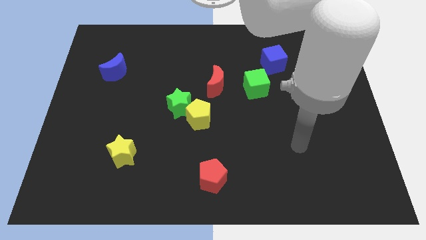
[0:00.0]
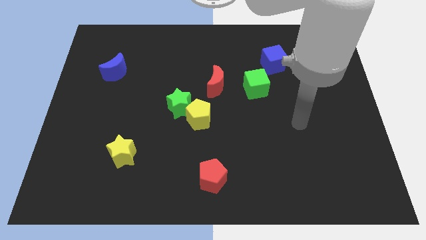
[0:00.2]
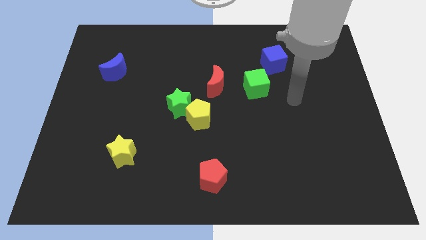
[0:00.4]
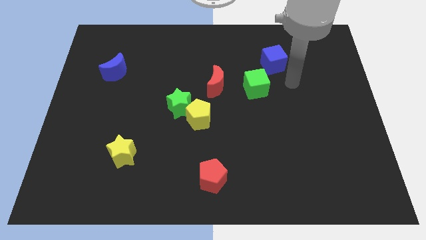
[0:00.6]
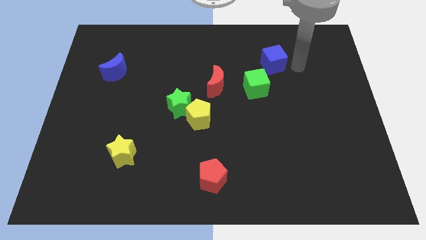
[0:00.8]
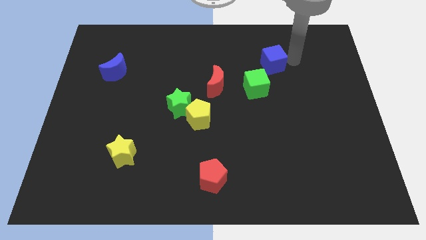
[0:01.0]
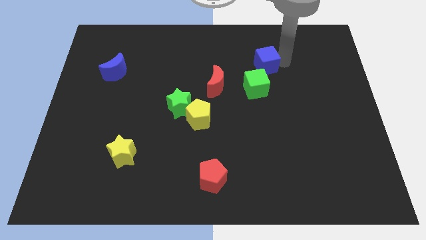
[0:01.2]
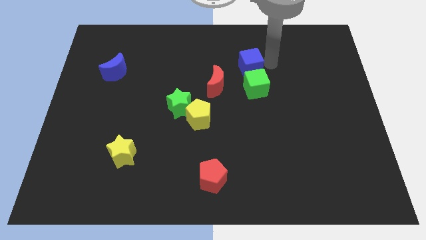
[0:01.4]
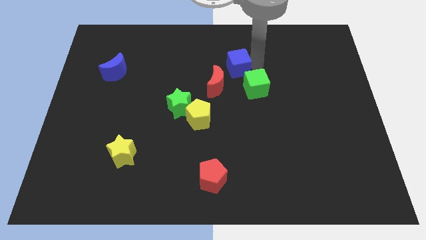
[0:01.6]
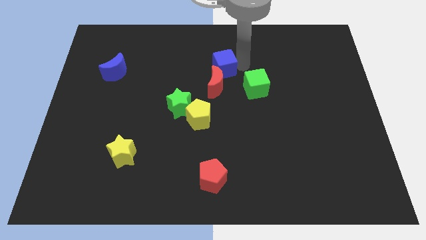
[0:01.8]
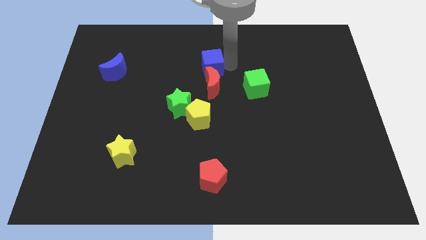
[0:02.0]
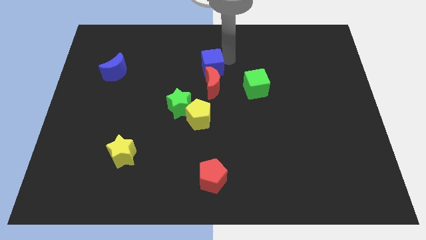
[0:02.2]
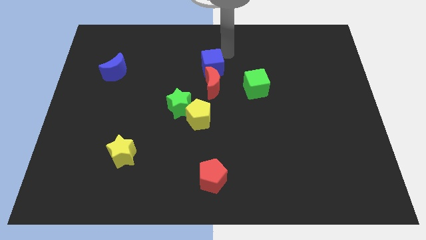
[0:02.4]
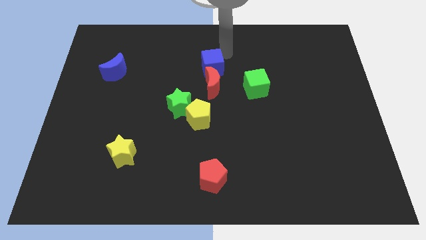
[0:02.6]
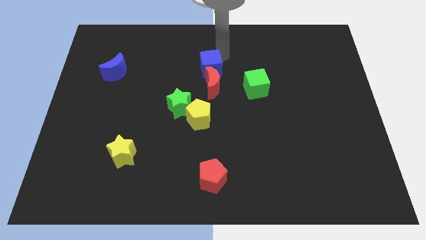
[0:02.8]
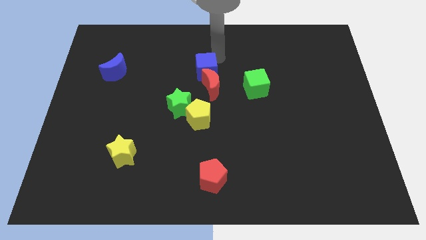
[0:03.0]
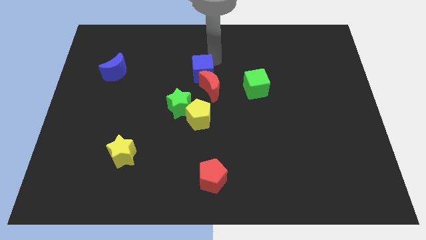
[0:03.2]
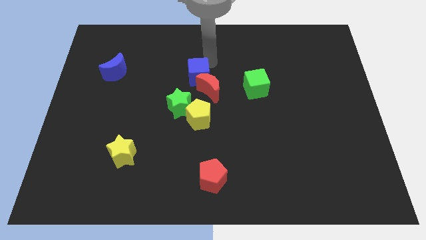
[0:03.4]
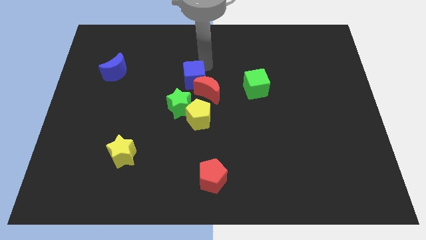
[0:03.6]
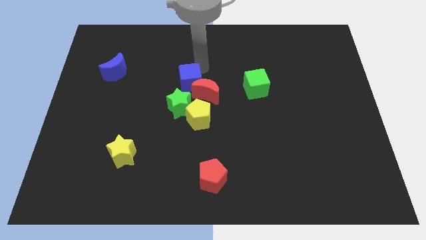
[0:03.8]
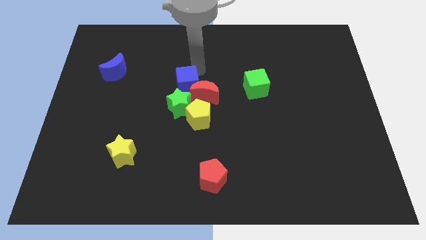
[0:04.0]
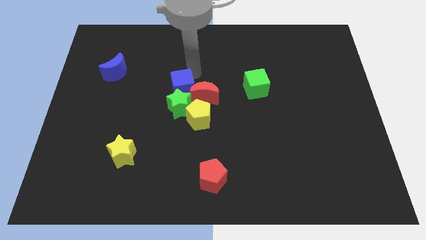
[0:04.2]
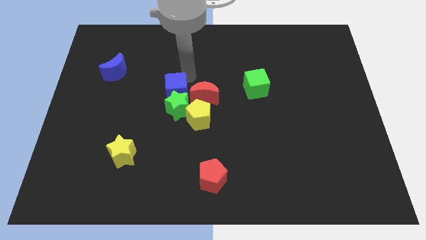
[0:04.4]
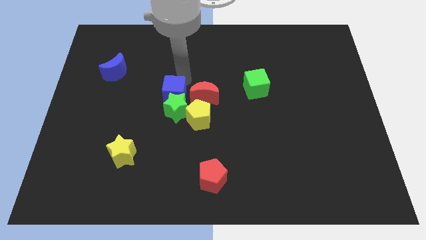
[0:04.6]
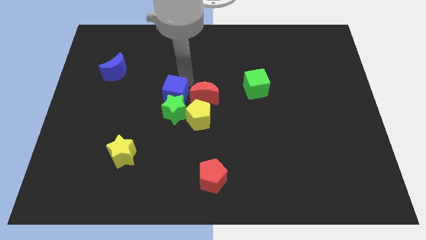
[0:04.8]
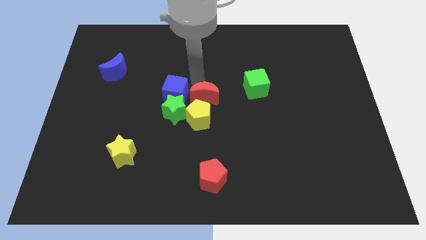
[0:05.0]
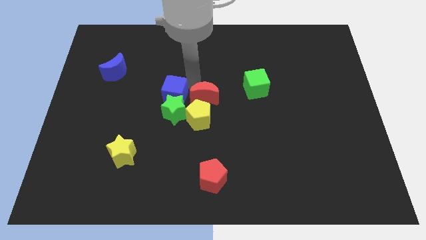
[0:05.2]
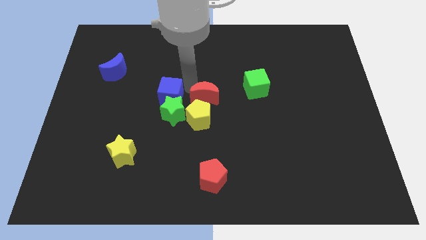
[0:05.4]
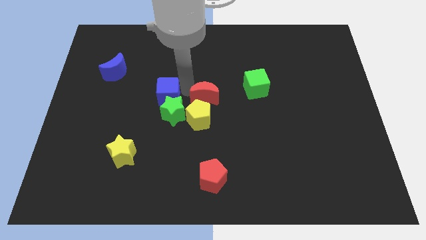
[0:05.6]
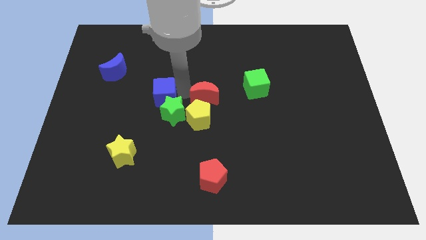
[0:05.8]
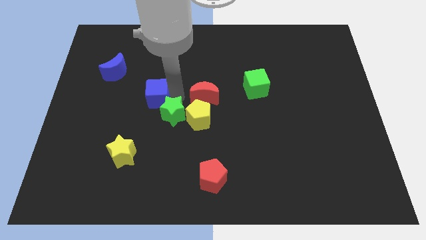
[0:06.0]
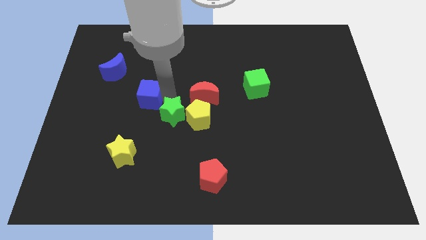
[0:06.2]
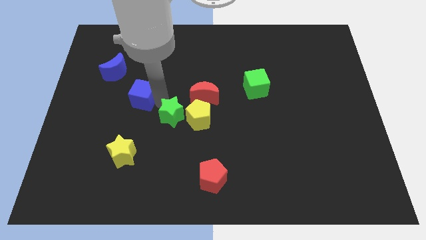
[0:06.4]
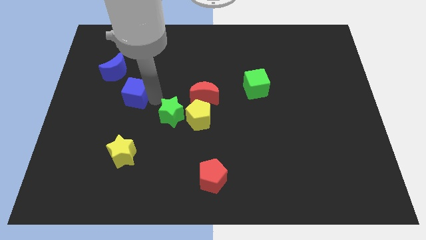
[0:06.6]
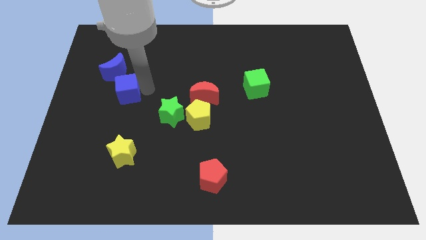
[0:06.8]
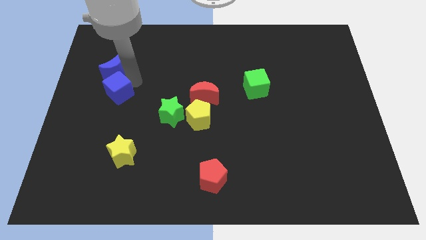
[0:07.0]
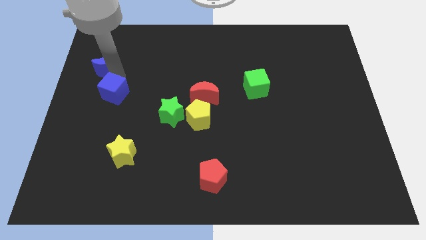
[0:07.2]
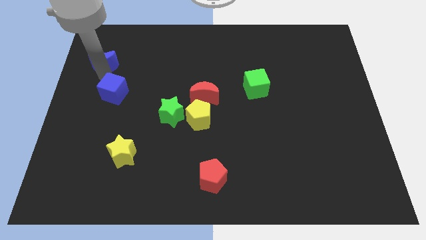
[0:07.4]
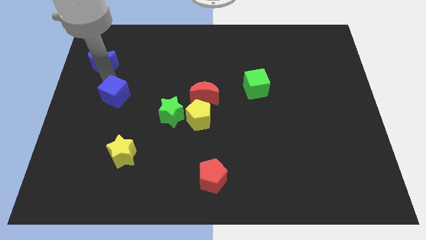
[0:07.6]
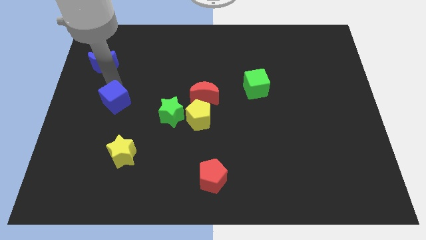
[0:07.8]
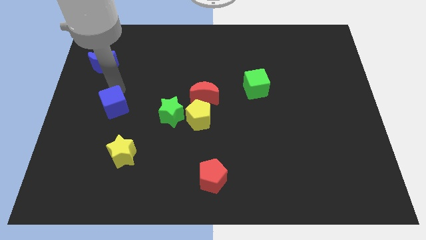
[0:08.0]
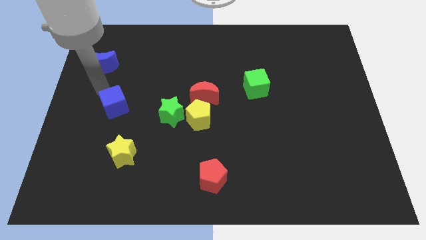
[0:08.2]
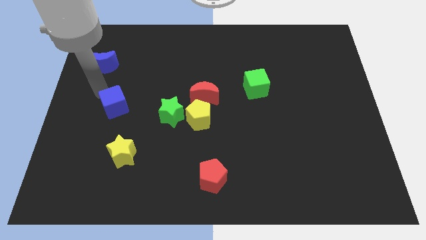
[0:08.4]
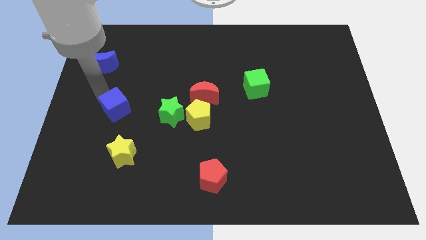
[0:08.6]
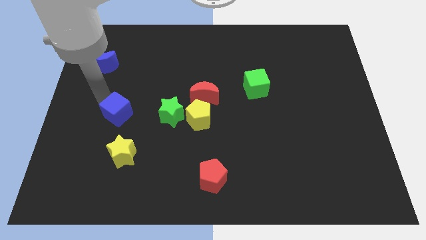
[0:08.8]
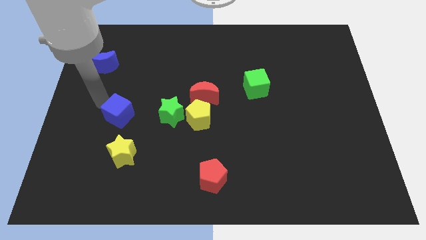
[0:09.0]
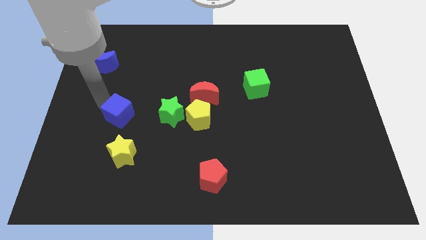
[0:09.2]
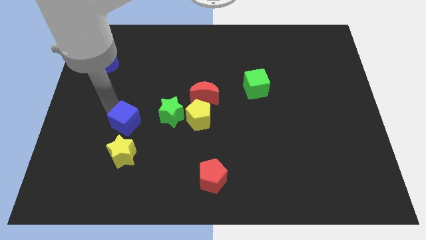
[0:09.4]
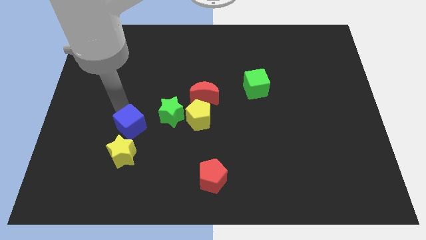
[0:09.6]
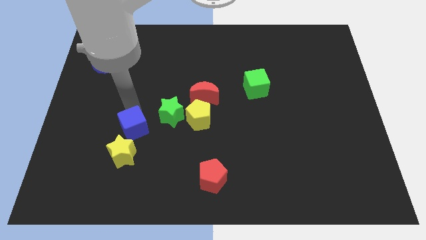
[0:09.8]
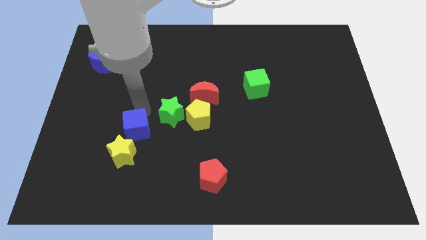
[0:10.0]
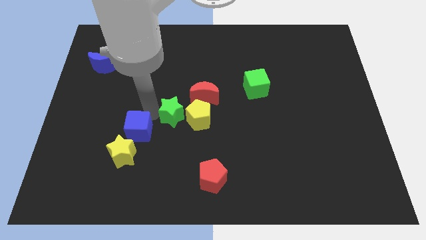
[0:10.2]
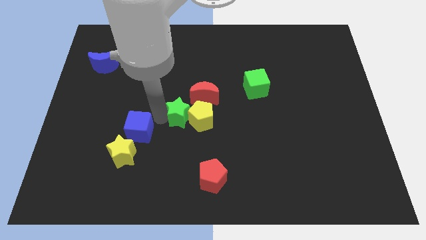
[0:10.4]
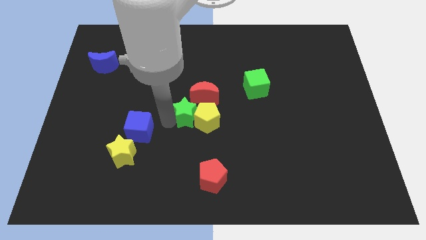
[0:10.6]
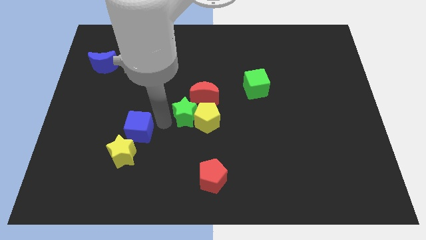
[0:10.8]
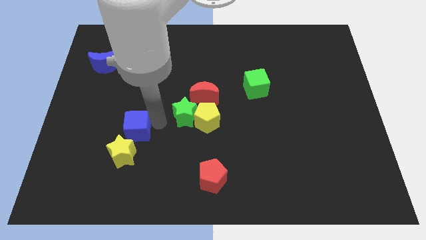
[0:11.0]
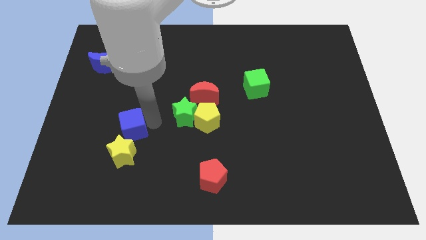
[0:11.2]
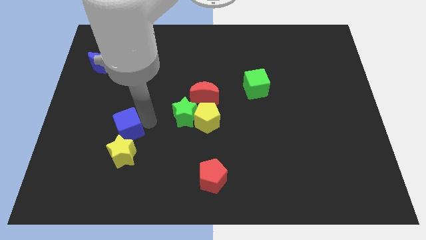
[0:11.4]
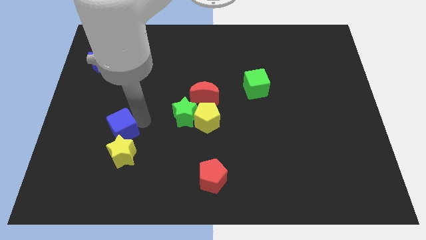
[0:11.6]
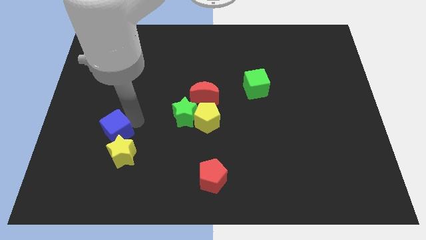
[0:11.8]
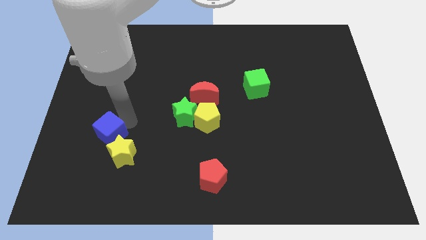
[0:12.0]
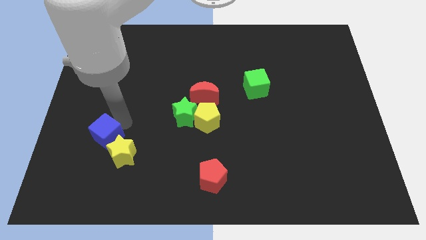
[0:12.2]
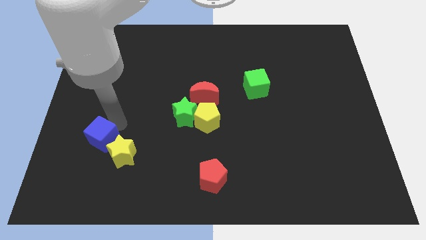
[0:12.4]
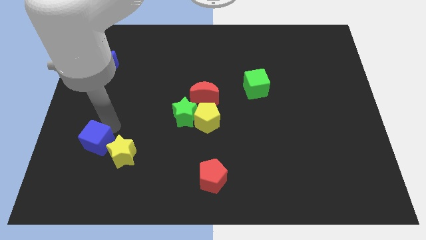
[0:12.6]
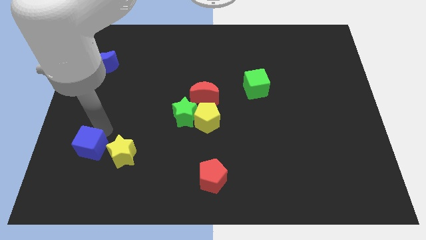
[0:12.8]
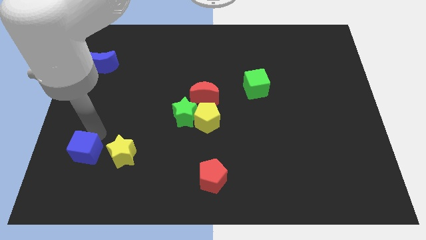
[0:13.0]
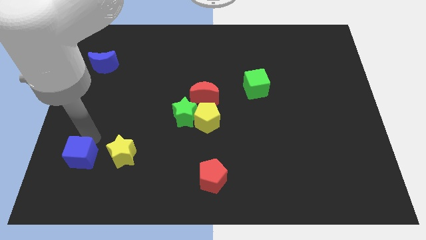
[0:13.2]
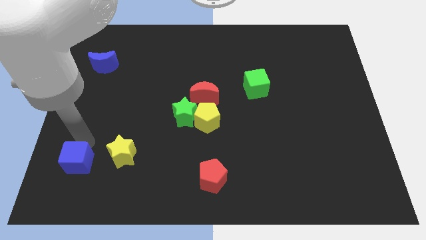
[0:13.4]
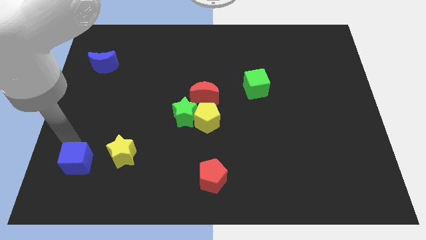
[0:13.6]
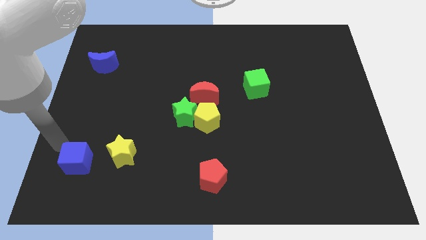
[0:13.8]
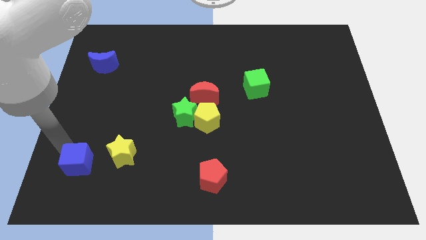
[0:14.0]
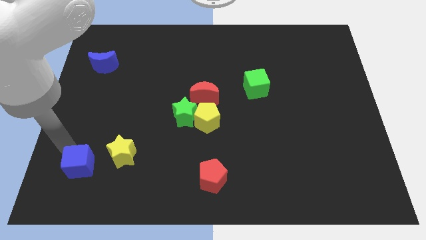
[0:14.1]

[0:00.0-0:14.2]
move the blue cube to the bottom left side of the yellow star
